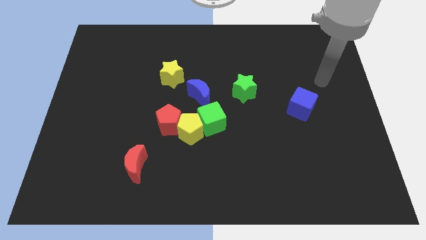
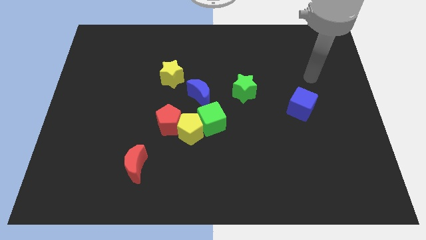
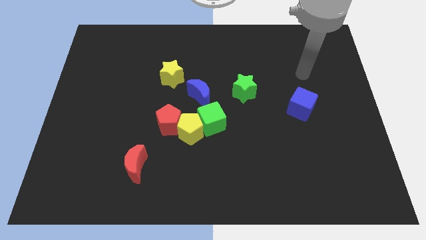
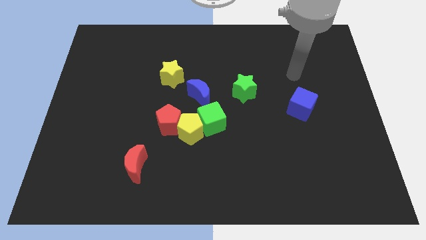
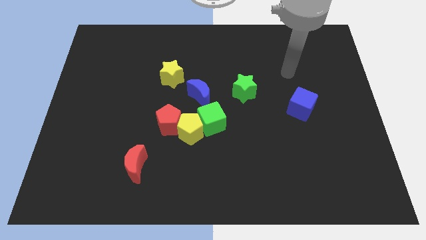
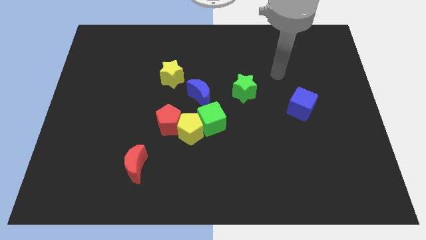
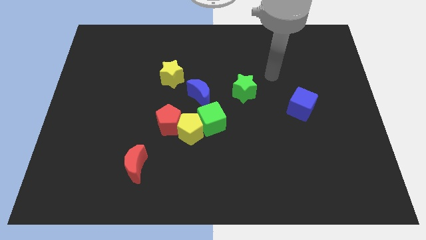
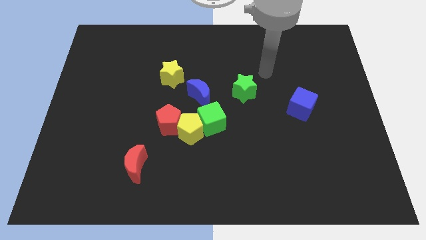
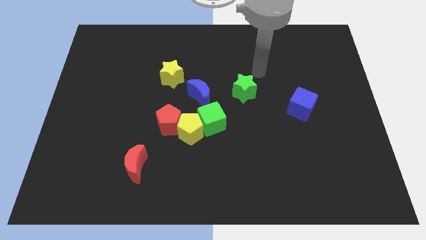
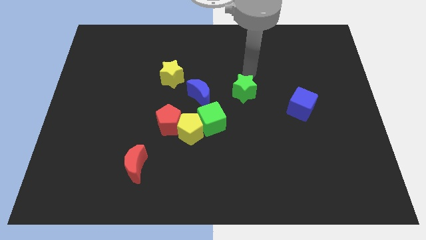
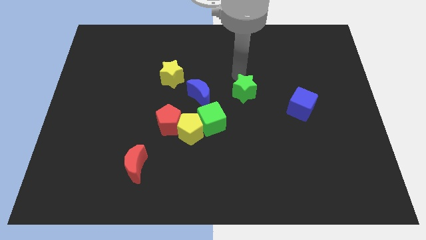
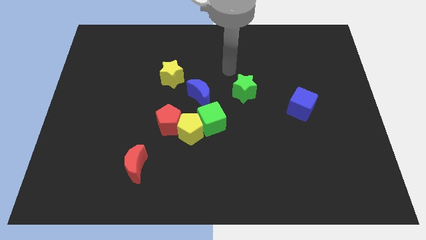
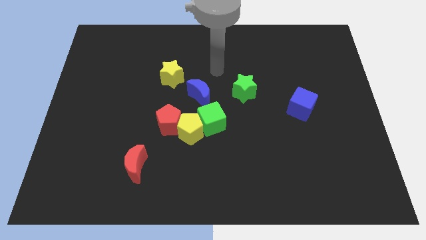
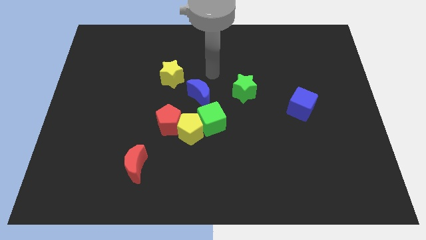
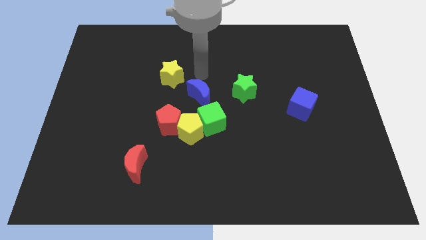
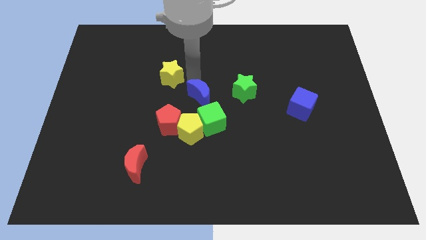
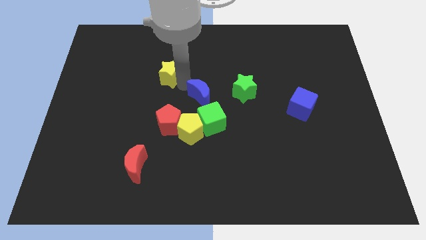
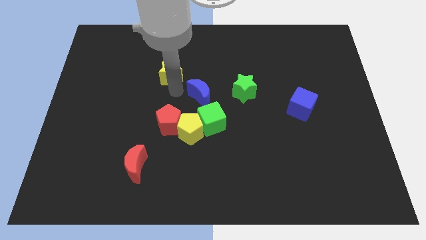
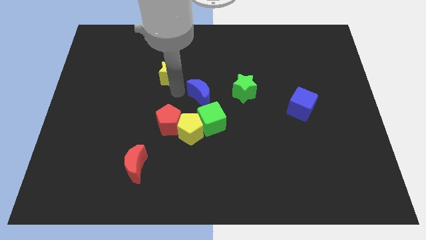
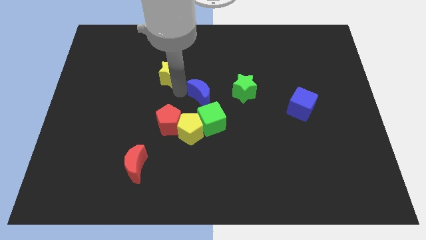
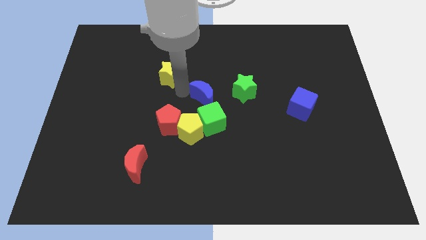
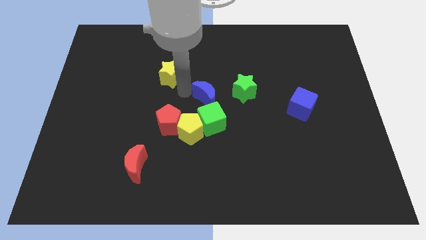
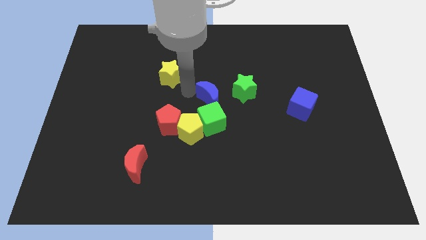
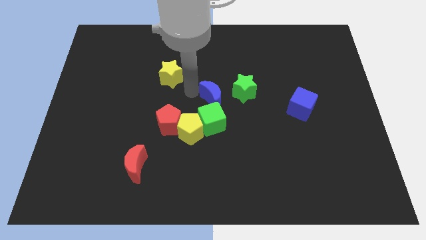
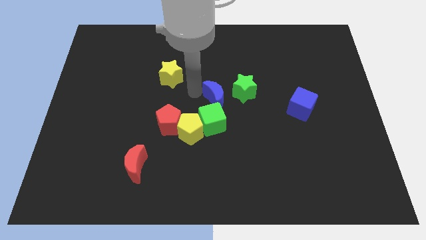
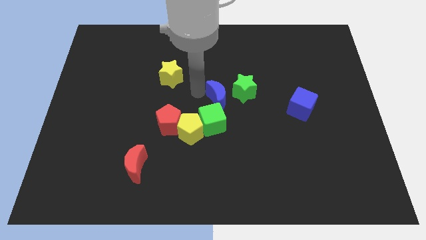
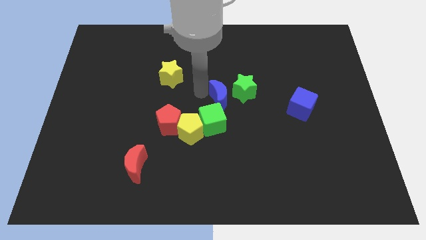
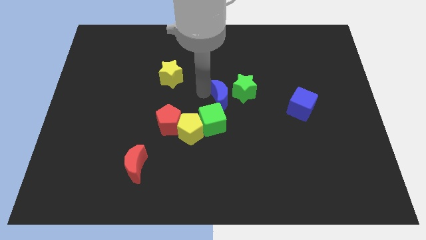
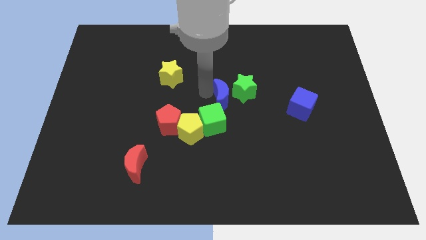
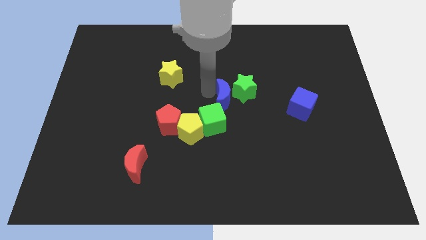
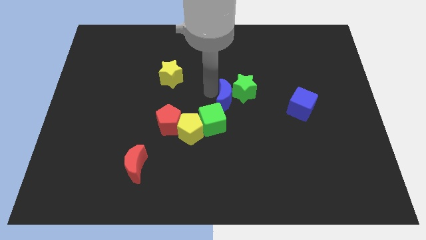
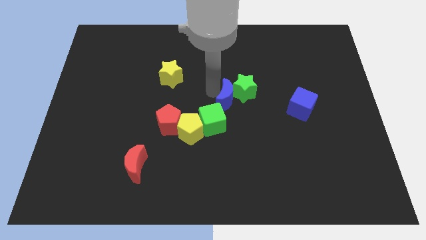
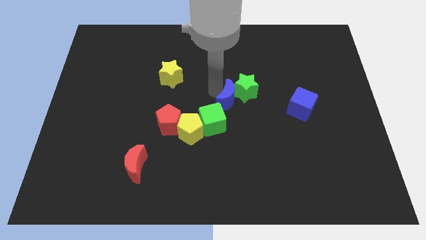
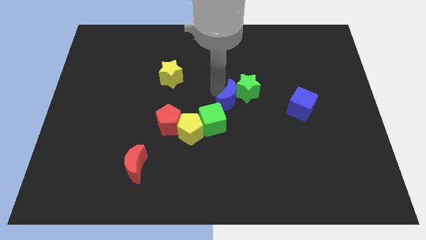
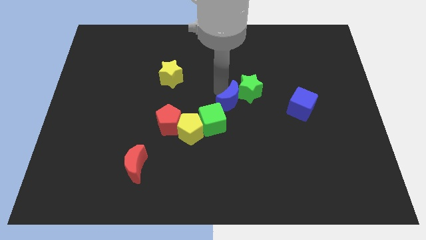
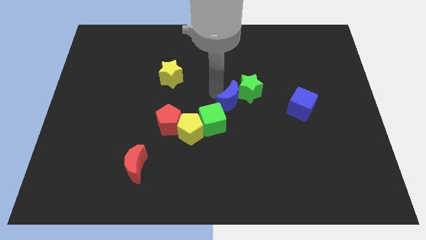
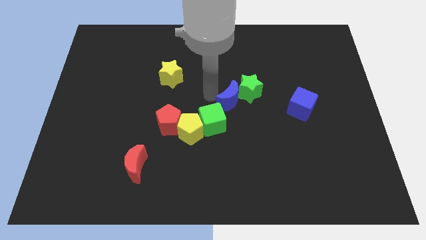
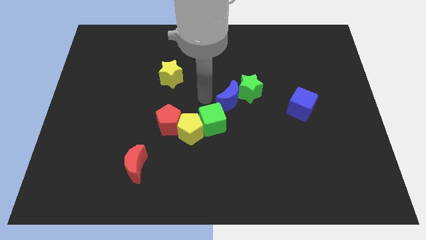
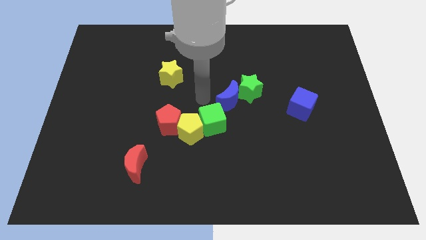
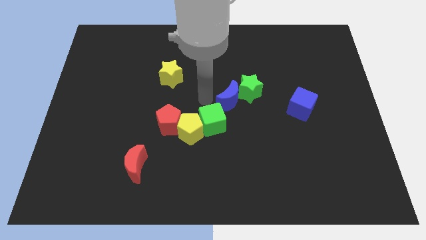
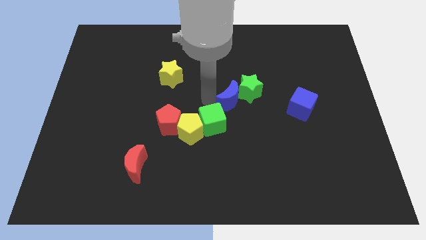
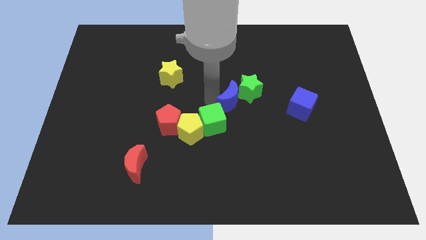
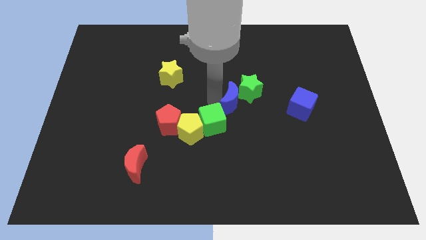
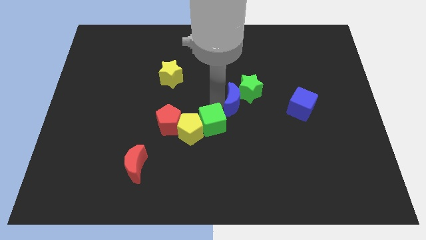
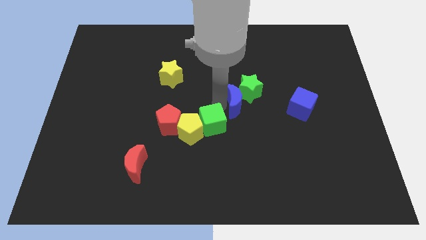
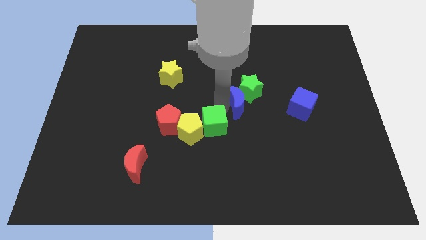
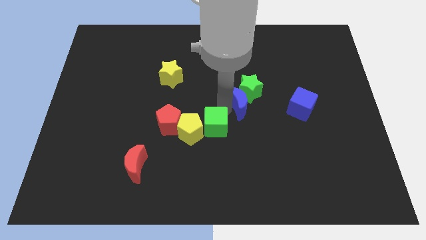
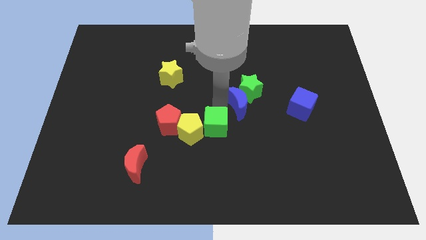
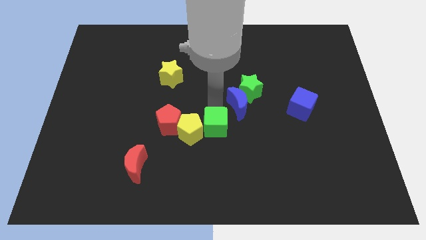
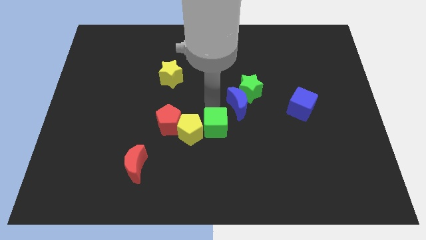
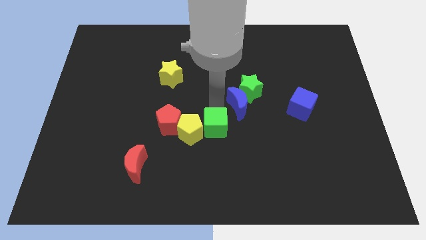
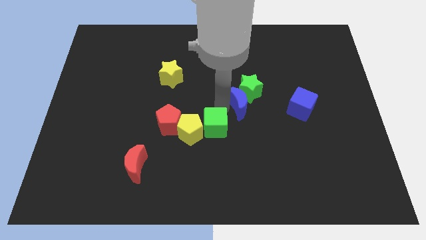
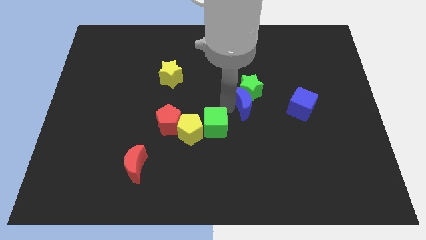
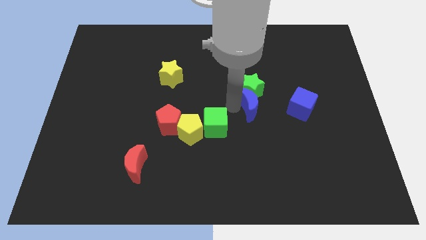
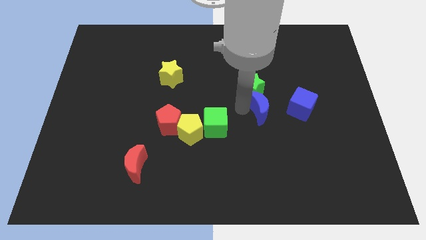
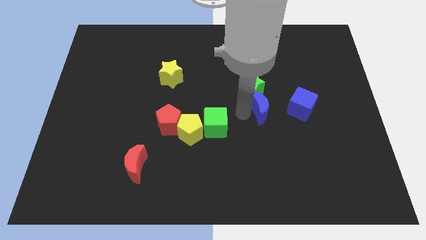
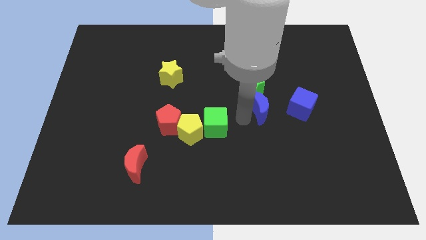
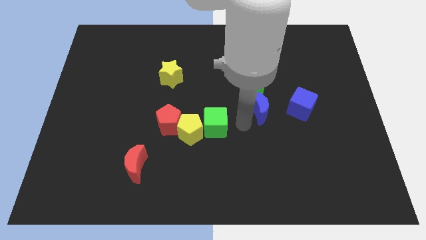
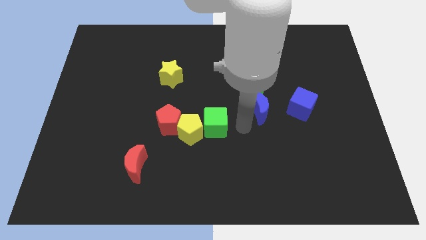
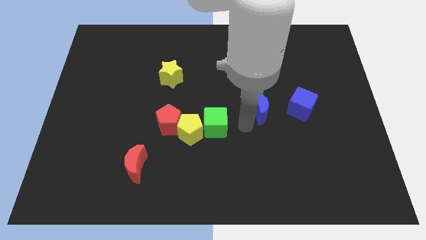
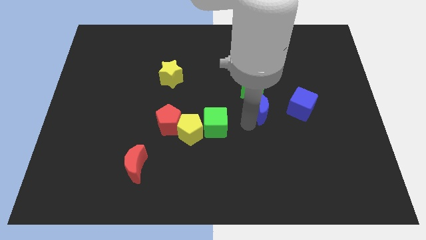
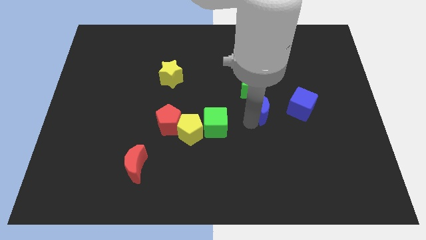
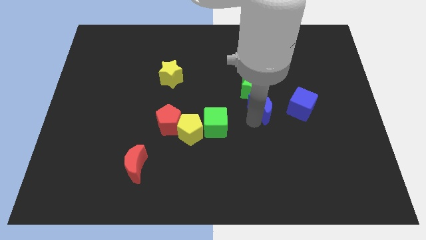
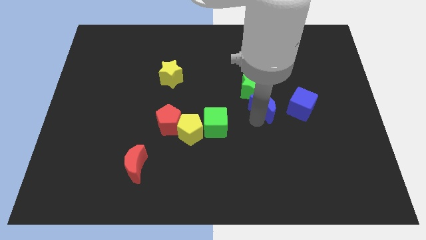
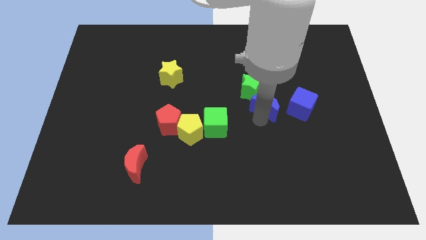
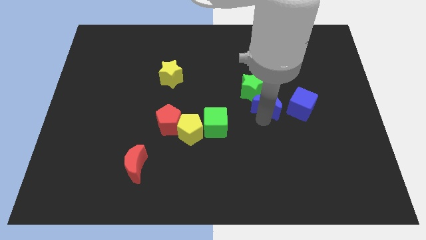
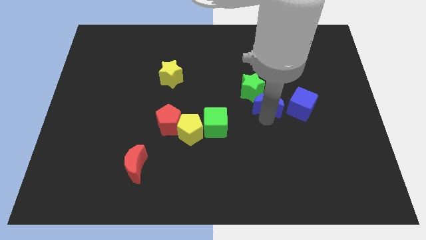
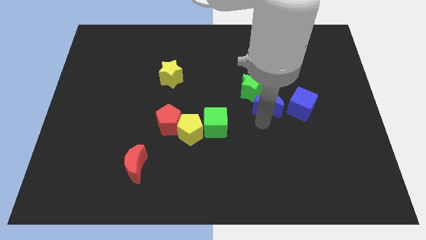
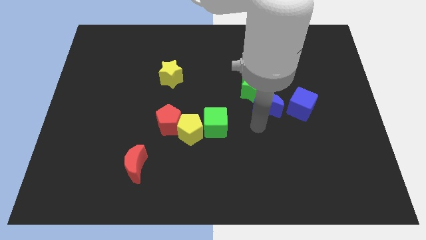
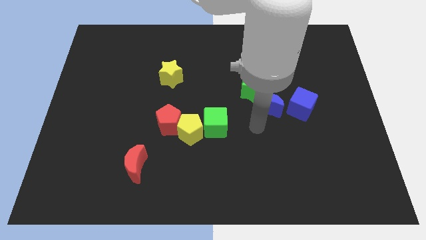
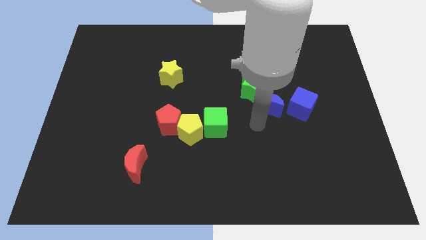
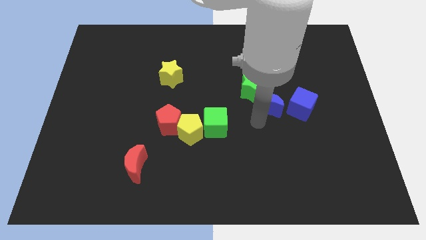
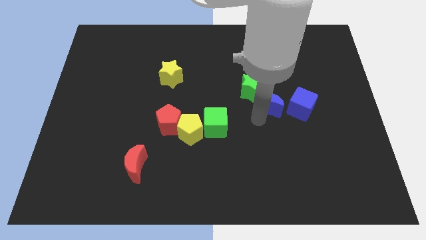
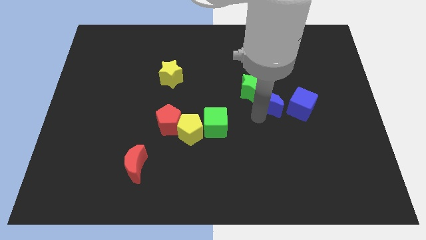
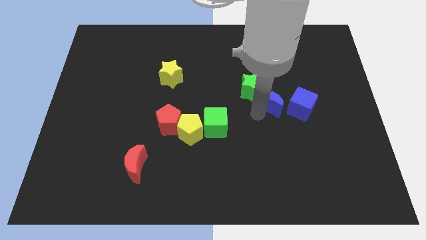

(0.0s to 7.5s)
push the blue moon to the top left side of the blue cube
